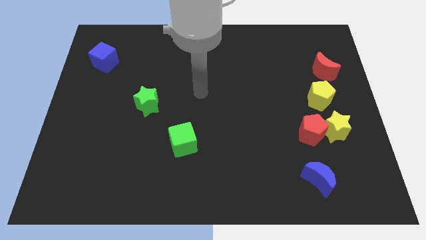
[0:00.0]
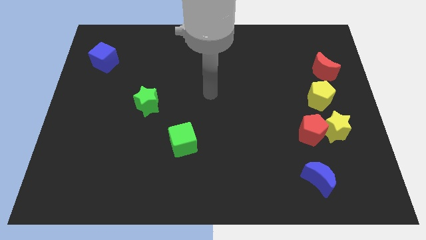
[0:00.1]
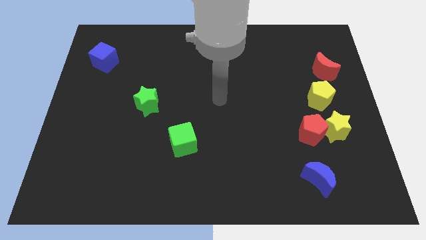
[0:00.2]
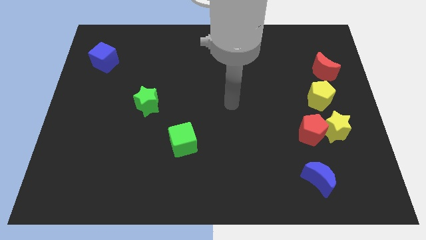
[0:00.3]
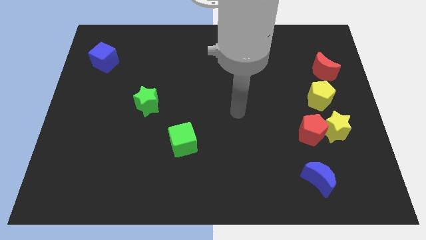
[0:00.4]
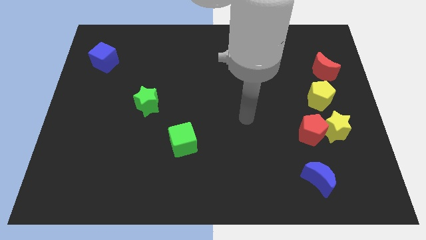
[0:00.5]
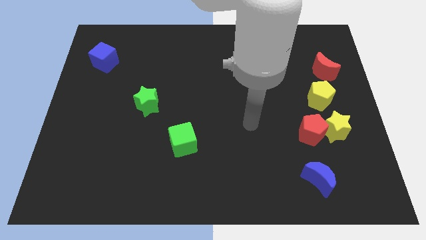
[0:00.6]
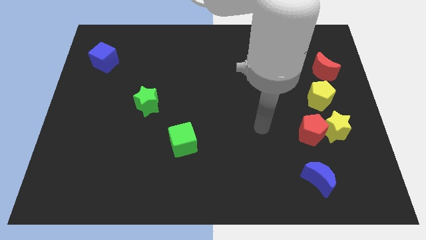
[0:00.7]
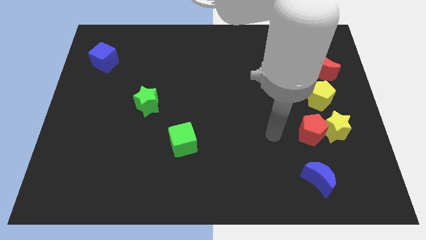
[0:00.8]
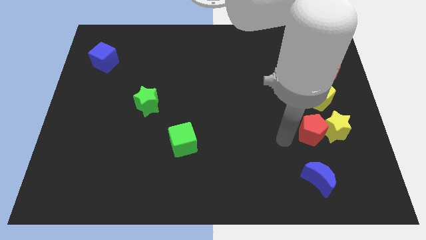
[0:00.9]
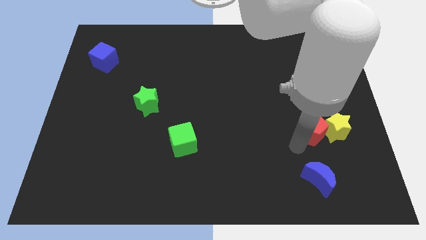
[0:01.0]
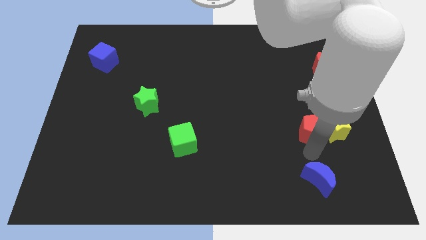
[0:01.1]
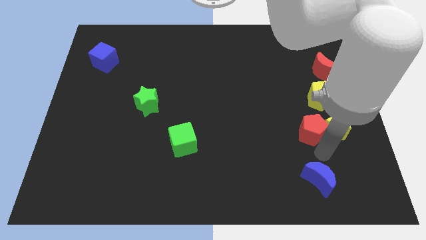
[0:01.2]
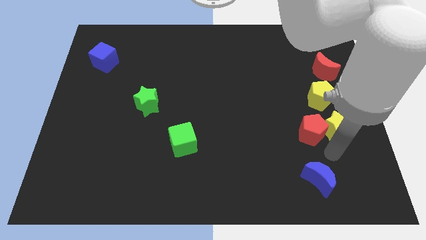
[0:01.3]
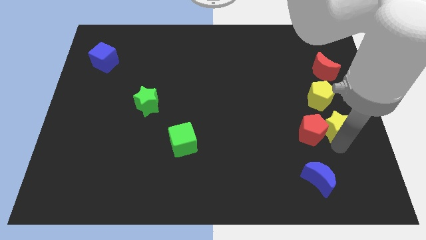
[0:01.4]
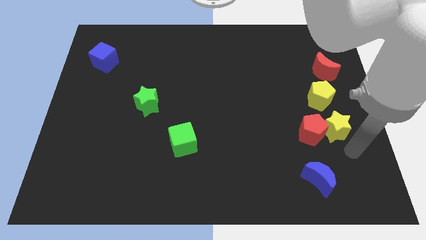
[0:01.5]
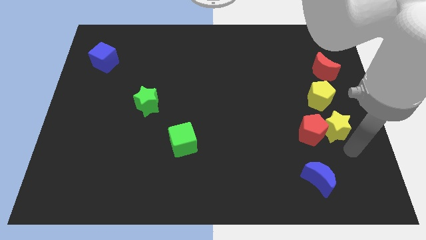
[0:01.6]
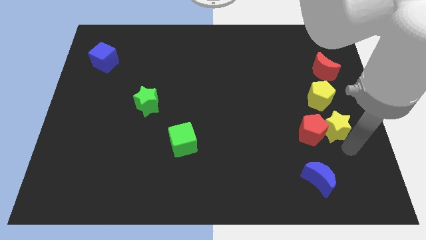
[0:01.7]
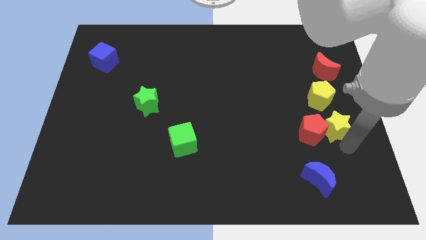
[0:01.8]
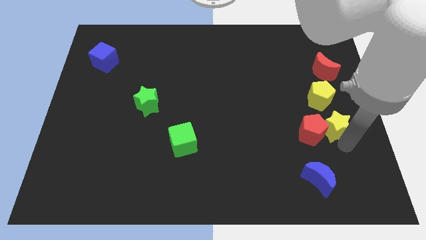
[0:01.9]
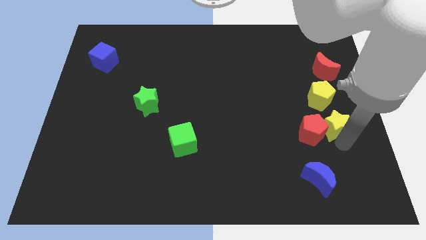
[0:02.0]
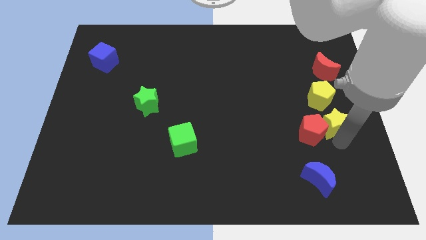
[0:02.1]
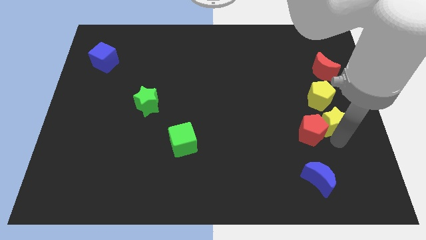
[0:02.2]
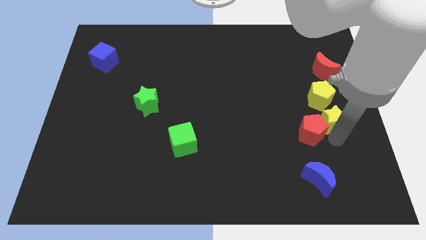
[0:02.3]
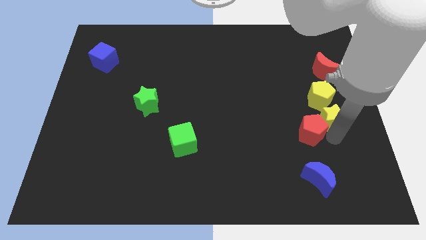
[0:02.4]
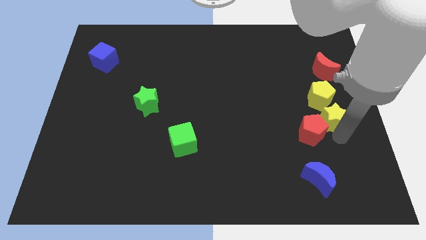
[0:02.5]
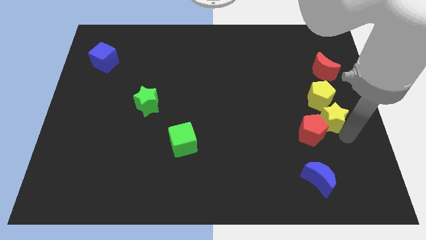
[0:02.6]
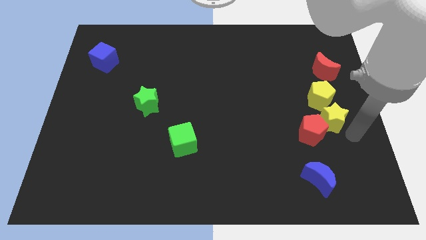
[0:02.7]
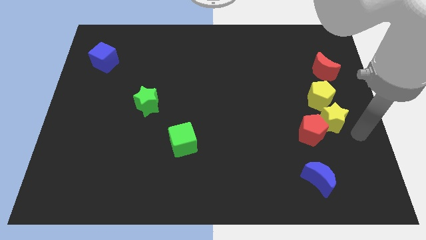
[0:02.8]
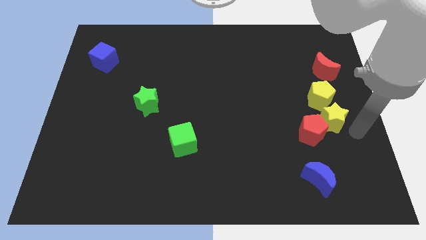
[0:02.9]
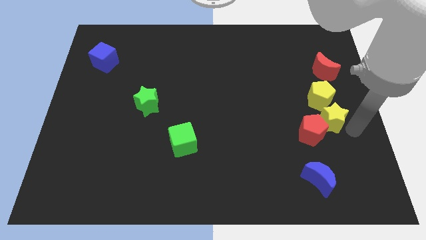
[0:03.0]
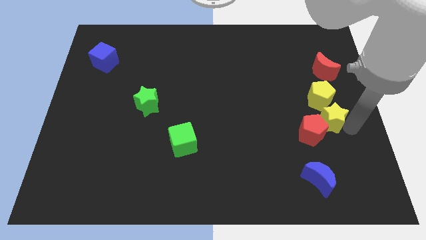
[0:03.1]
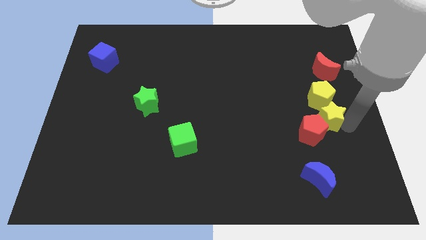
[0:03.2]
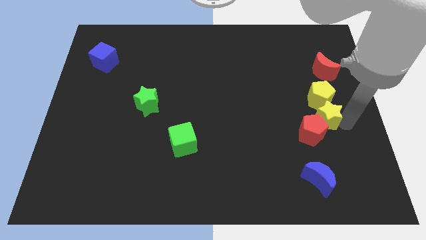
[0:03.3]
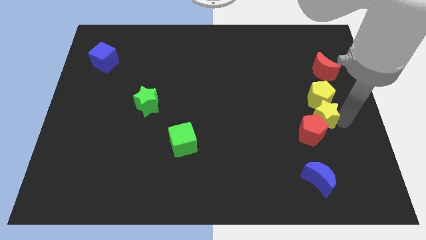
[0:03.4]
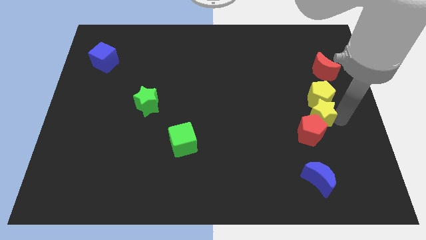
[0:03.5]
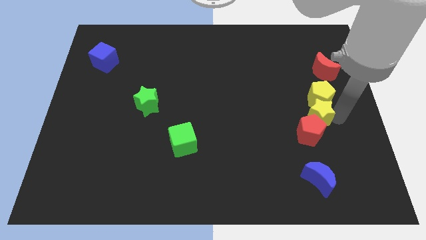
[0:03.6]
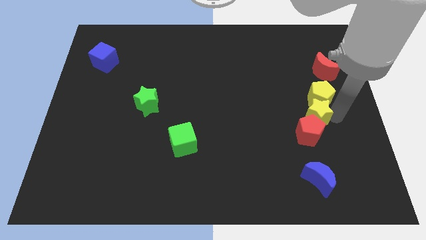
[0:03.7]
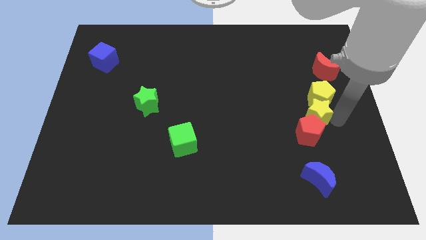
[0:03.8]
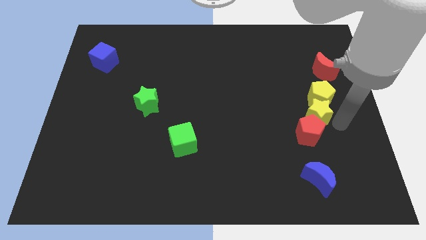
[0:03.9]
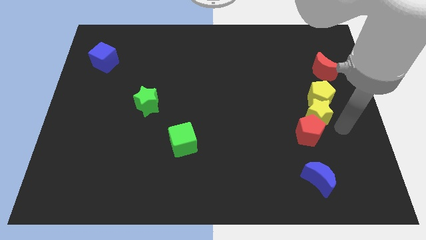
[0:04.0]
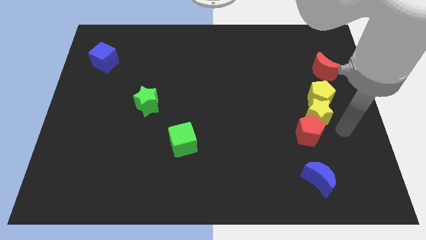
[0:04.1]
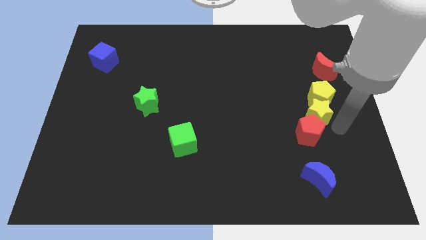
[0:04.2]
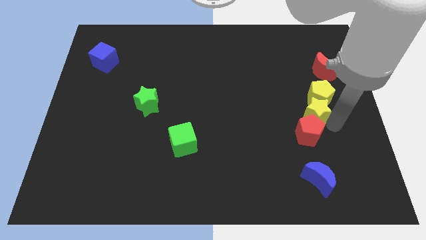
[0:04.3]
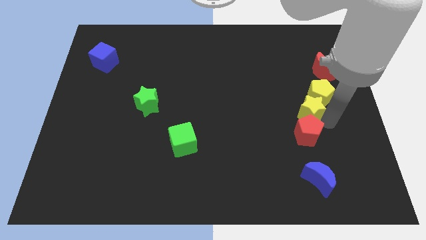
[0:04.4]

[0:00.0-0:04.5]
slide the yellow star diagonally upwards and to the left slightly

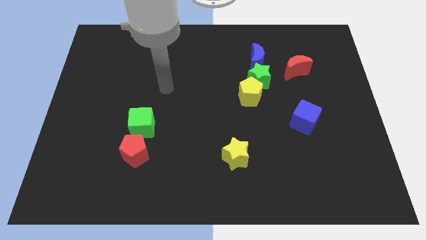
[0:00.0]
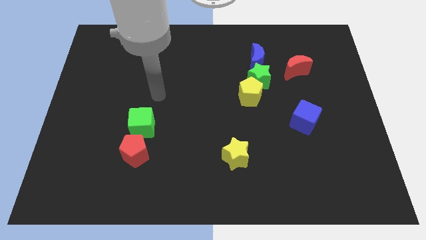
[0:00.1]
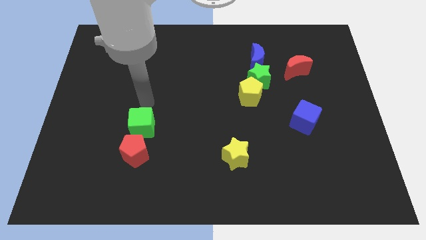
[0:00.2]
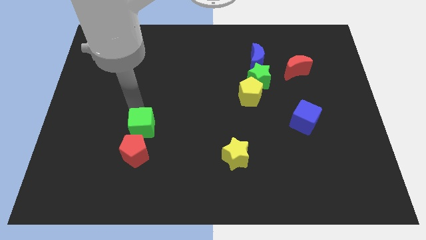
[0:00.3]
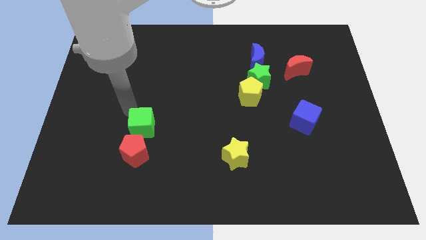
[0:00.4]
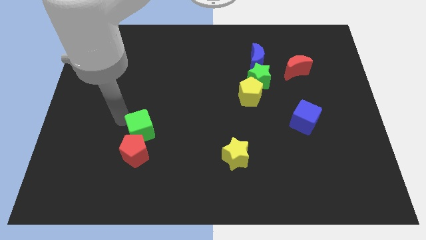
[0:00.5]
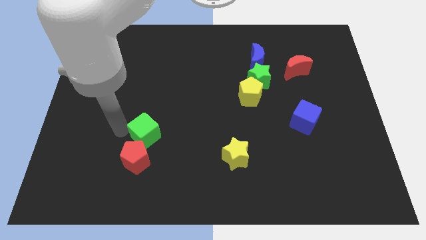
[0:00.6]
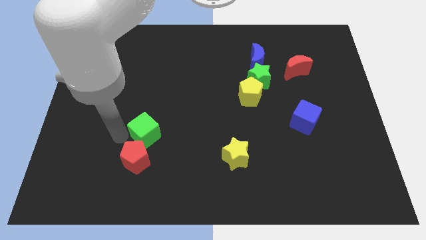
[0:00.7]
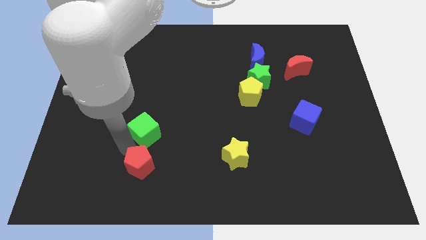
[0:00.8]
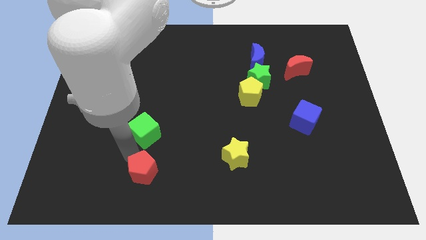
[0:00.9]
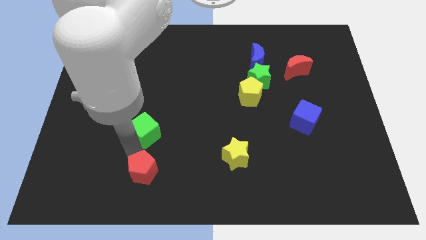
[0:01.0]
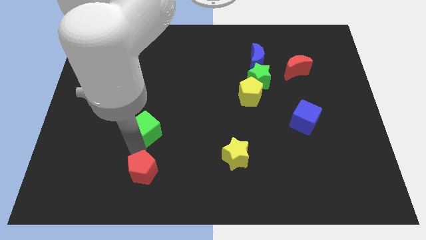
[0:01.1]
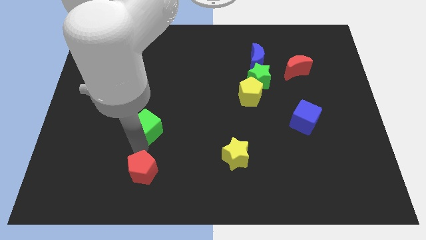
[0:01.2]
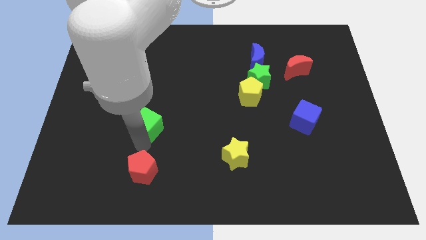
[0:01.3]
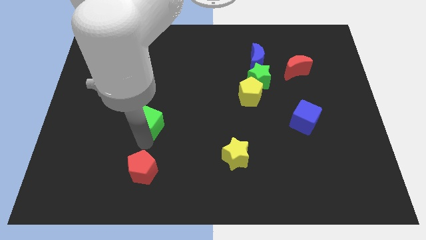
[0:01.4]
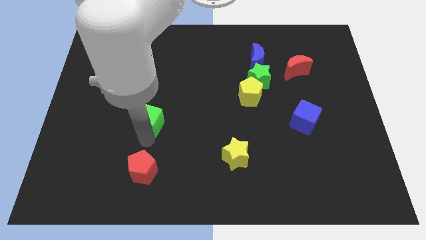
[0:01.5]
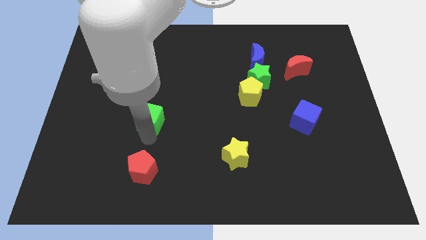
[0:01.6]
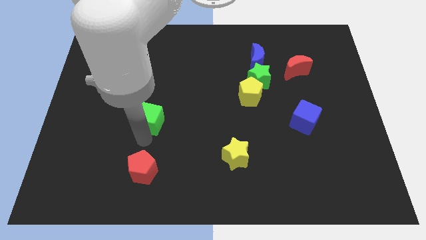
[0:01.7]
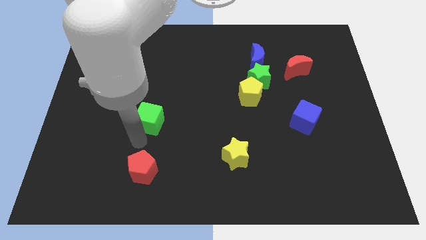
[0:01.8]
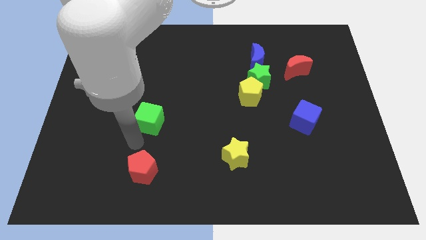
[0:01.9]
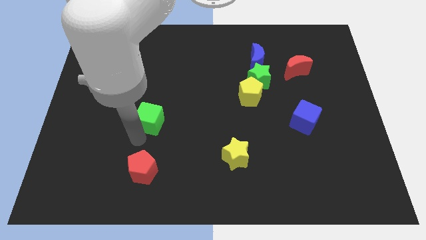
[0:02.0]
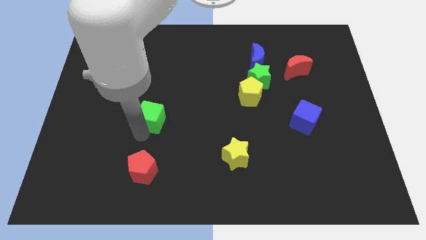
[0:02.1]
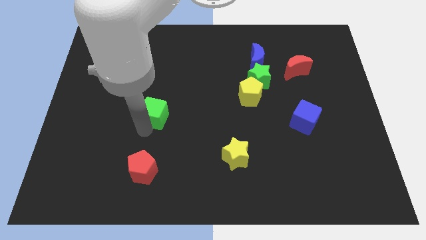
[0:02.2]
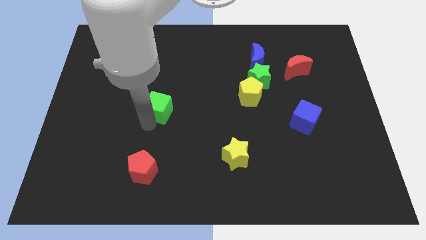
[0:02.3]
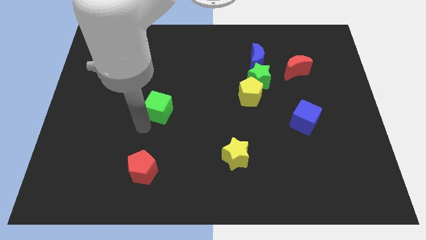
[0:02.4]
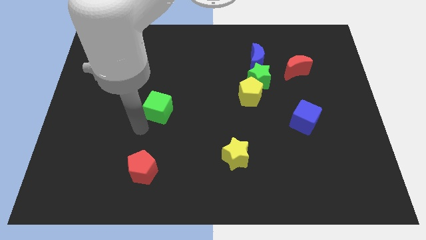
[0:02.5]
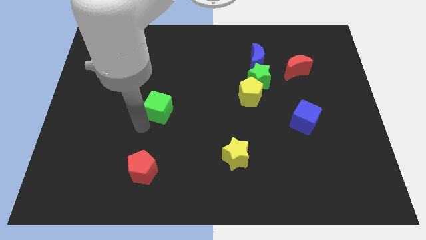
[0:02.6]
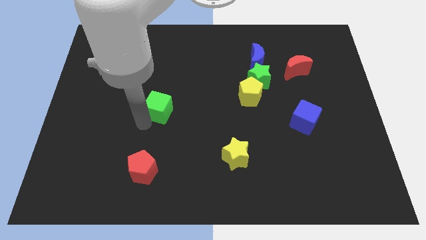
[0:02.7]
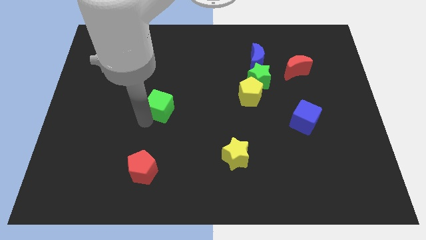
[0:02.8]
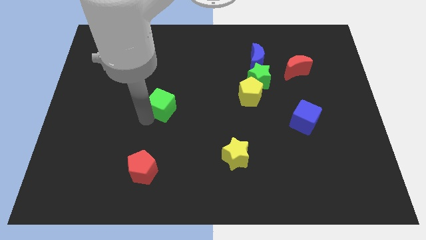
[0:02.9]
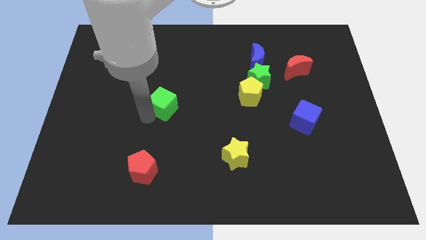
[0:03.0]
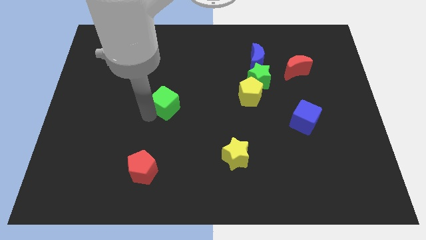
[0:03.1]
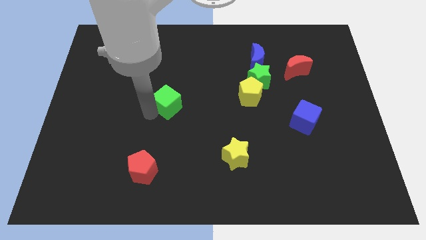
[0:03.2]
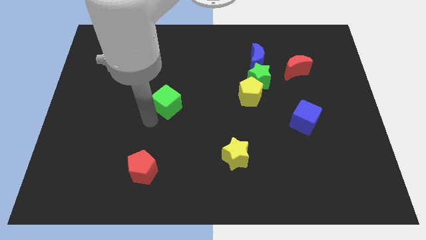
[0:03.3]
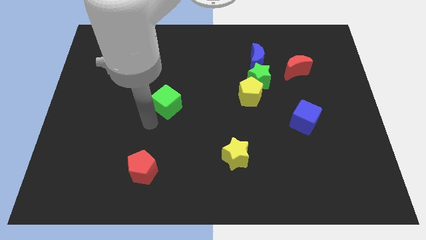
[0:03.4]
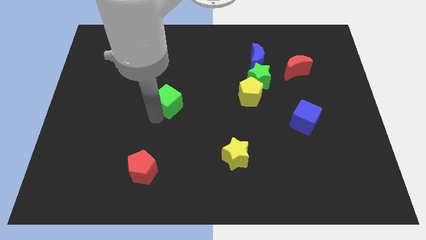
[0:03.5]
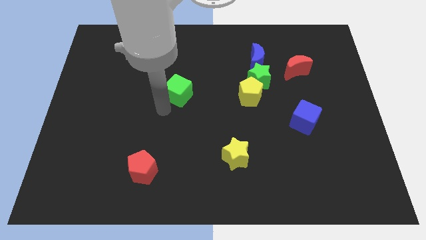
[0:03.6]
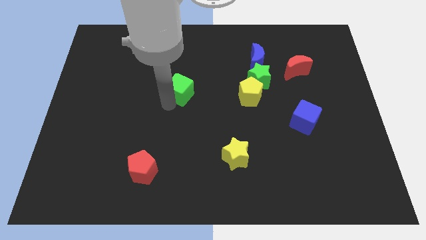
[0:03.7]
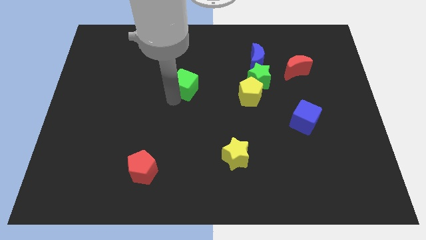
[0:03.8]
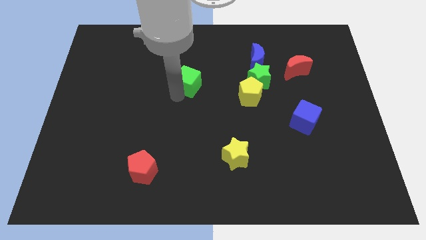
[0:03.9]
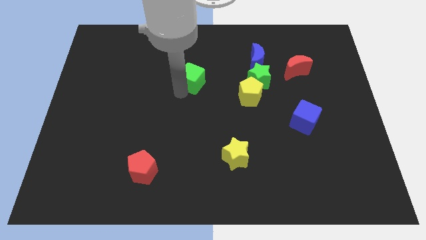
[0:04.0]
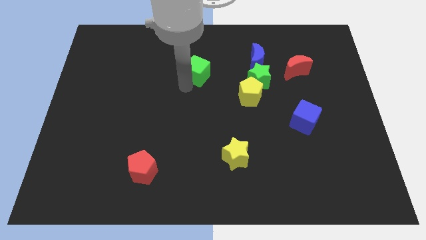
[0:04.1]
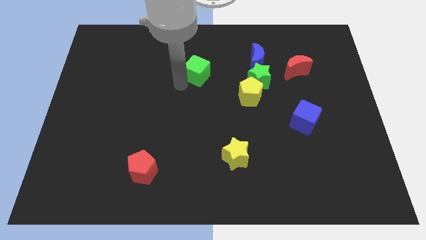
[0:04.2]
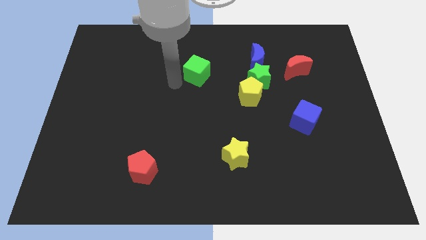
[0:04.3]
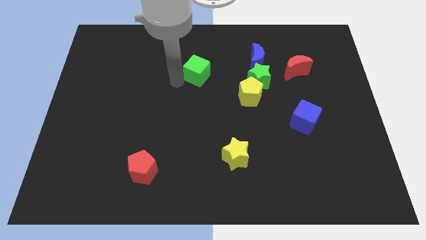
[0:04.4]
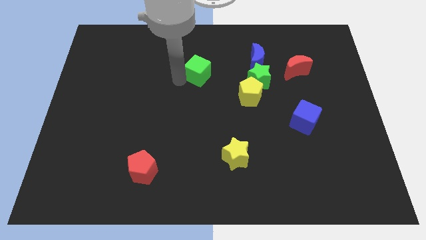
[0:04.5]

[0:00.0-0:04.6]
slide the green cube upwards and then right
